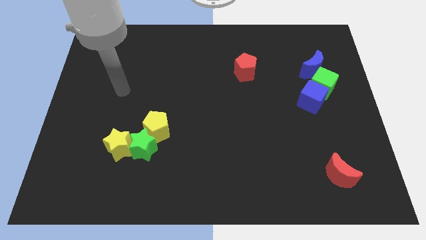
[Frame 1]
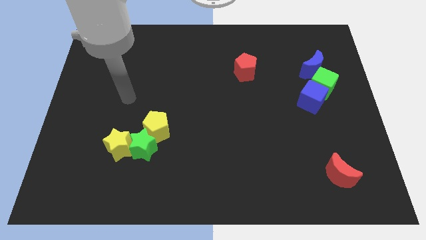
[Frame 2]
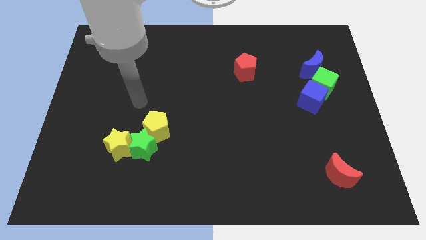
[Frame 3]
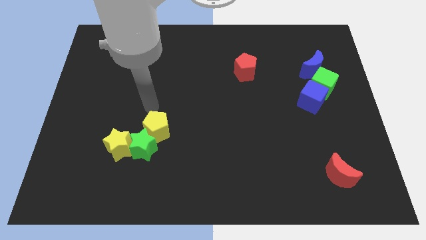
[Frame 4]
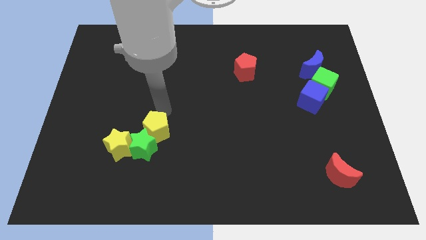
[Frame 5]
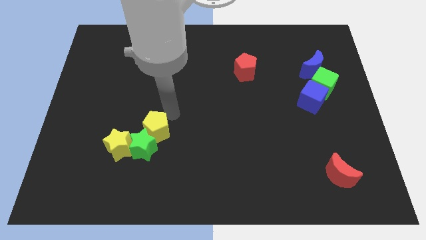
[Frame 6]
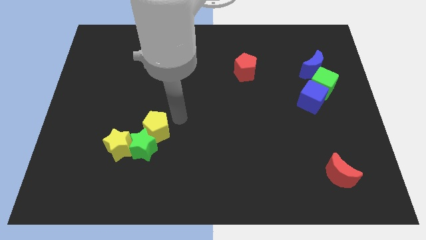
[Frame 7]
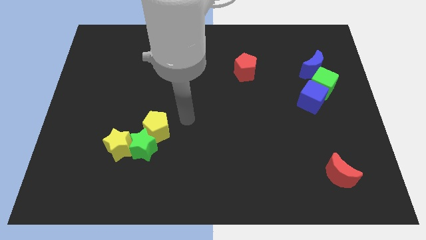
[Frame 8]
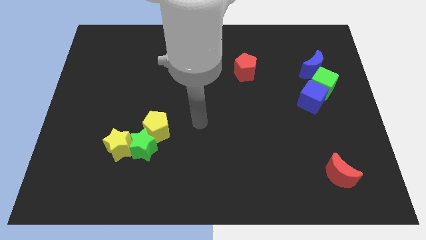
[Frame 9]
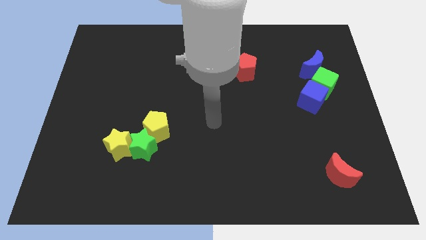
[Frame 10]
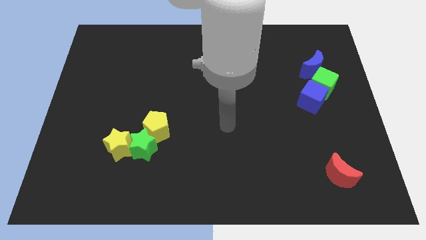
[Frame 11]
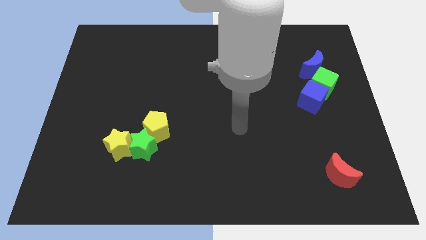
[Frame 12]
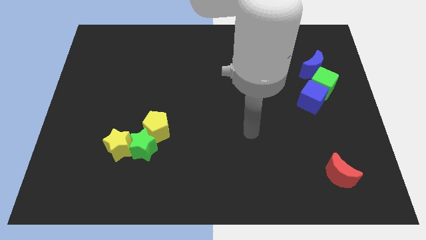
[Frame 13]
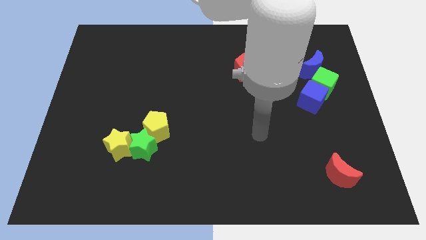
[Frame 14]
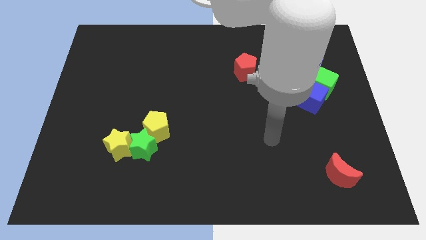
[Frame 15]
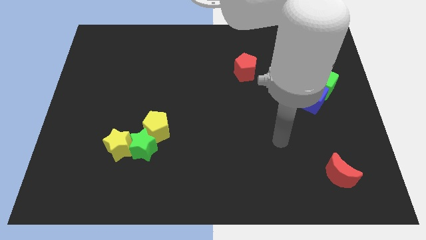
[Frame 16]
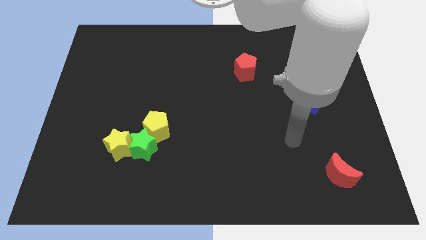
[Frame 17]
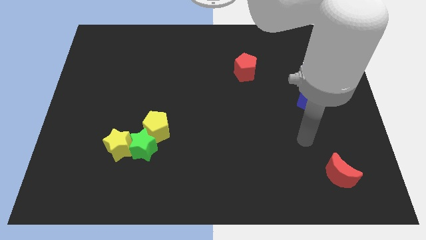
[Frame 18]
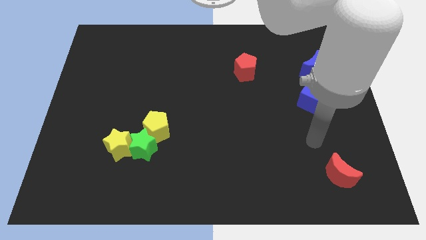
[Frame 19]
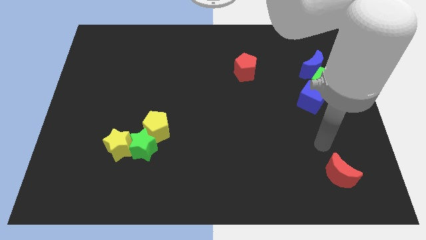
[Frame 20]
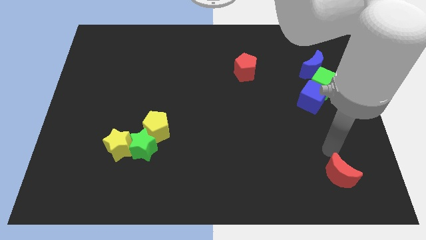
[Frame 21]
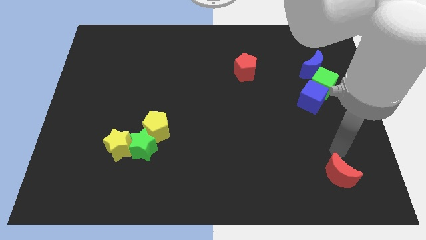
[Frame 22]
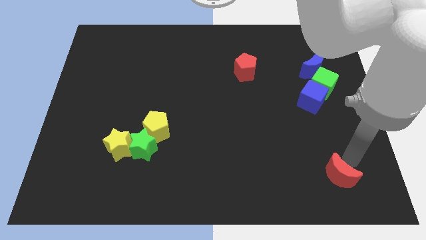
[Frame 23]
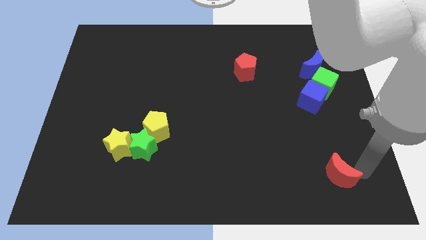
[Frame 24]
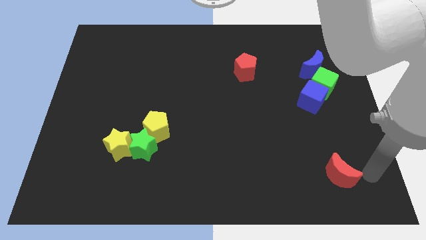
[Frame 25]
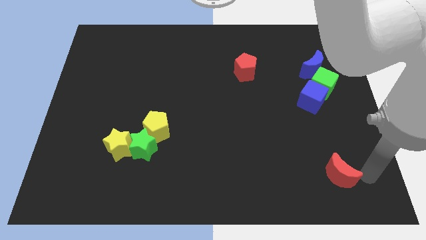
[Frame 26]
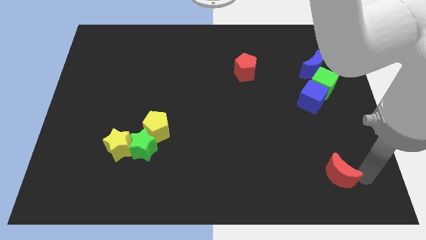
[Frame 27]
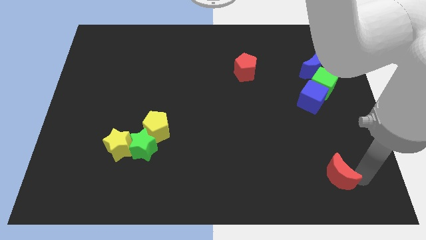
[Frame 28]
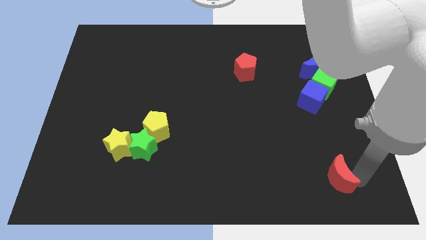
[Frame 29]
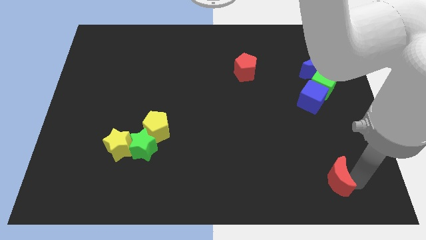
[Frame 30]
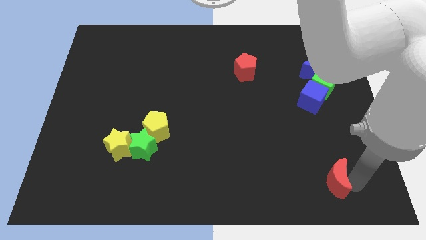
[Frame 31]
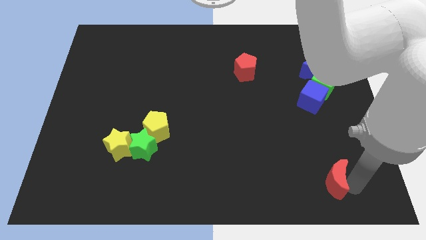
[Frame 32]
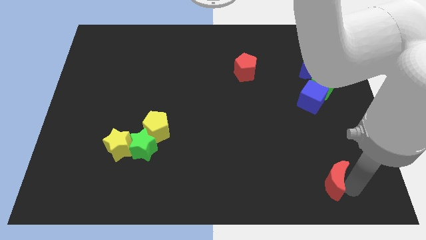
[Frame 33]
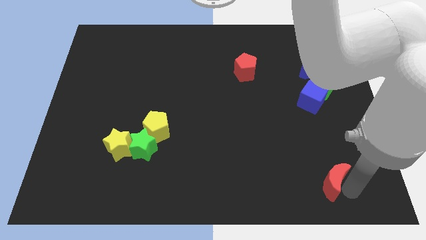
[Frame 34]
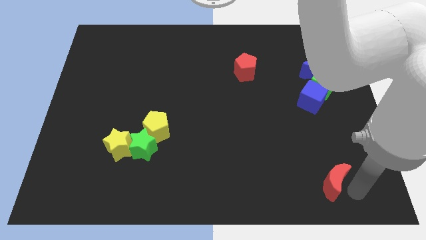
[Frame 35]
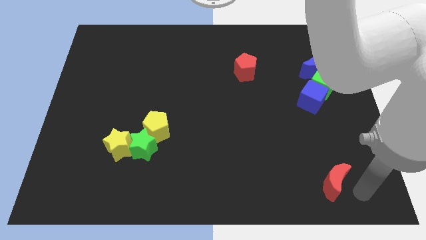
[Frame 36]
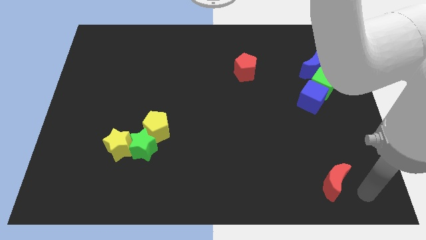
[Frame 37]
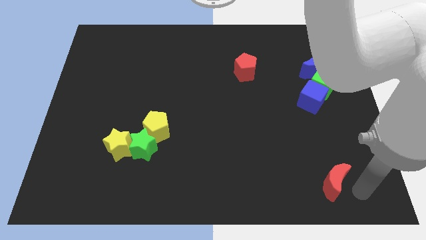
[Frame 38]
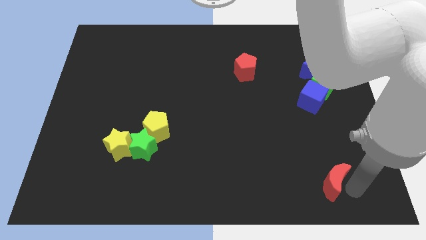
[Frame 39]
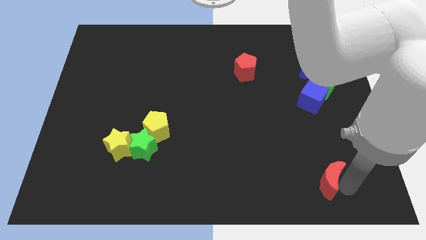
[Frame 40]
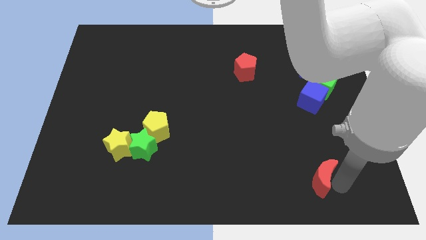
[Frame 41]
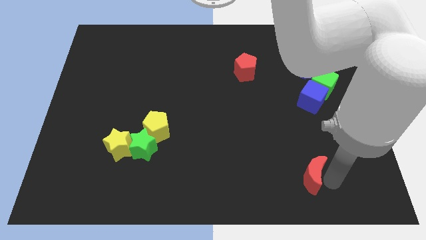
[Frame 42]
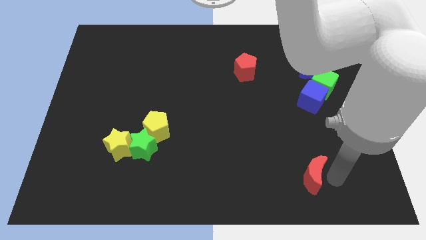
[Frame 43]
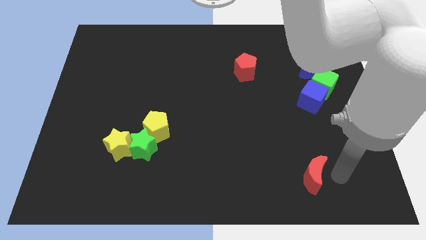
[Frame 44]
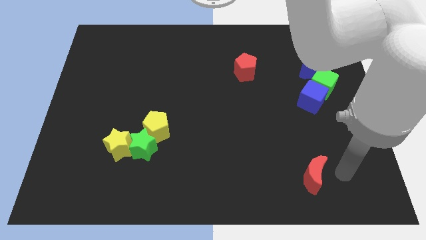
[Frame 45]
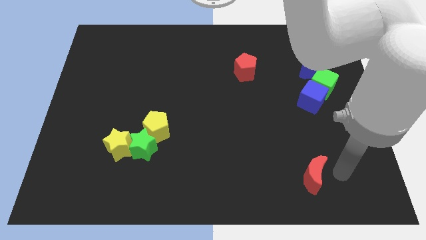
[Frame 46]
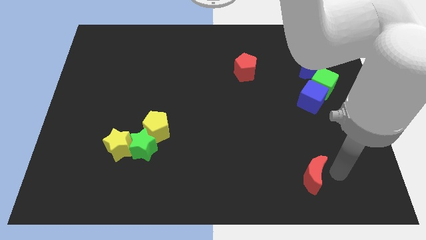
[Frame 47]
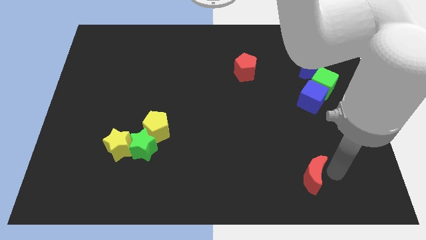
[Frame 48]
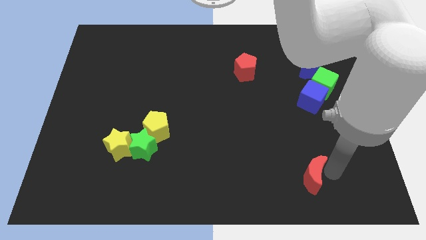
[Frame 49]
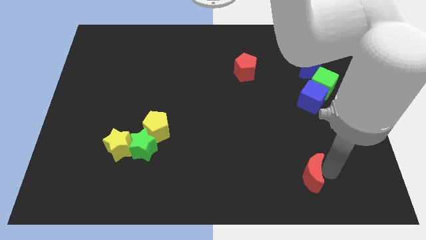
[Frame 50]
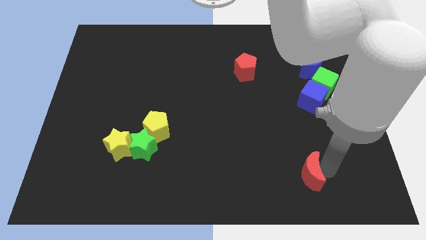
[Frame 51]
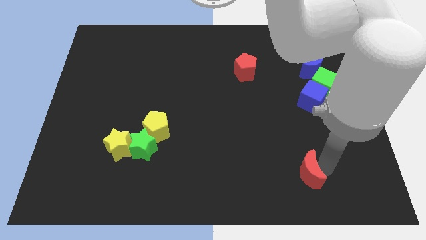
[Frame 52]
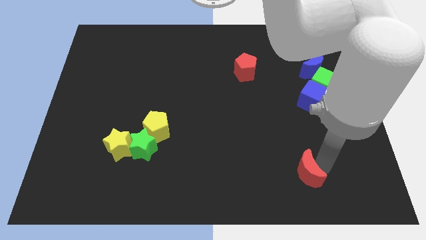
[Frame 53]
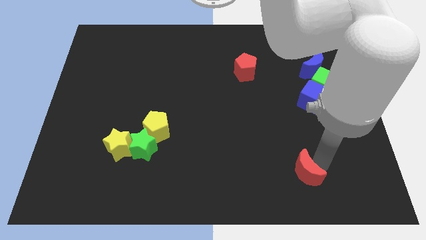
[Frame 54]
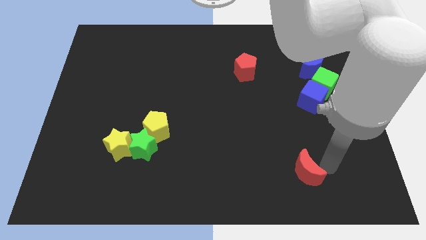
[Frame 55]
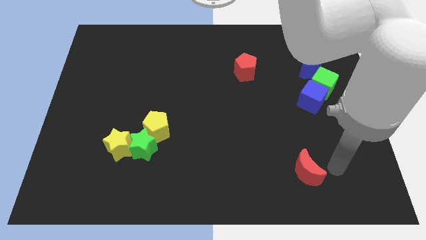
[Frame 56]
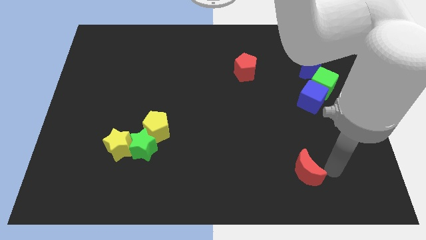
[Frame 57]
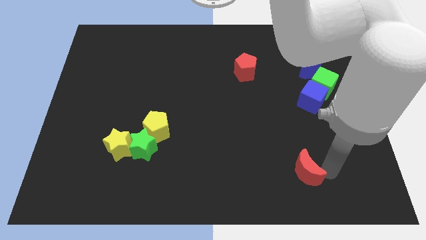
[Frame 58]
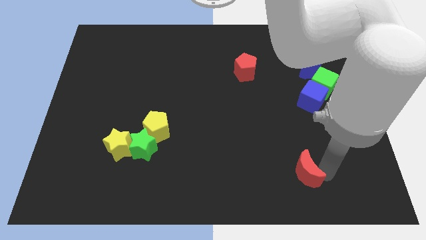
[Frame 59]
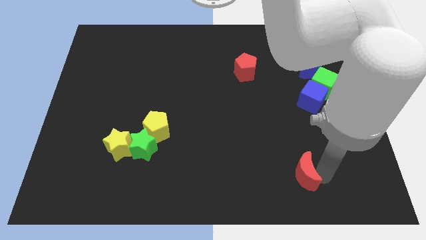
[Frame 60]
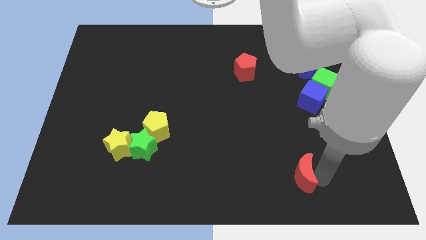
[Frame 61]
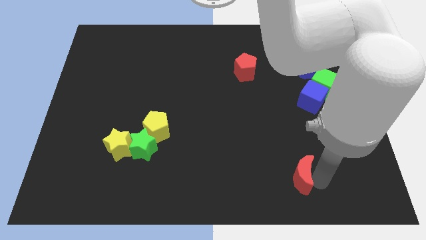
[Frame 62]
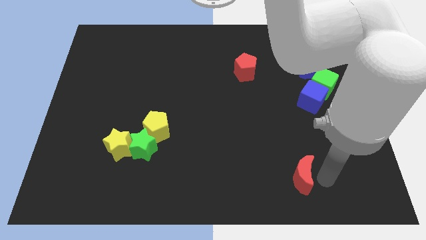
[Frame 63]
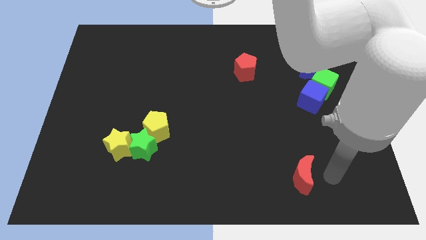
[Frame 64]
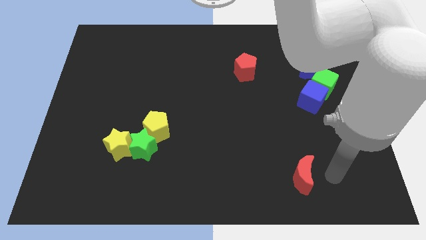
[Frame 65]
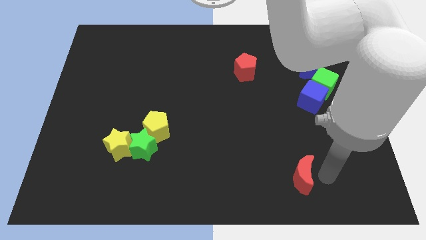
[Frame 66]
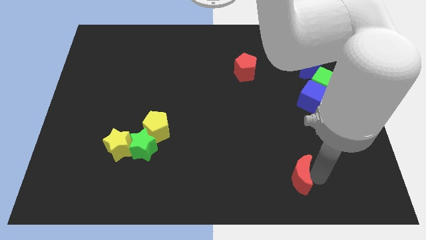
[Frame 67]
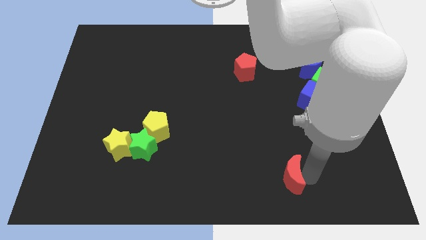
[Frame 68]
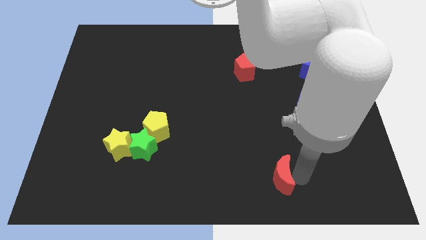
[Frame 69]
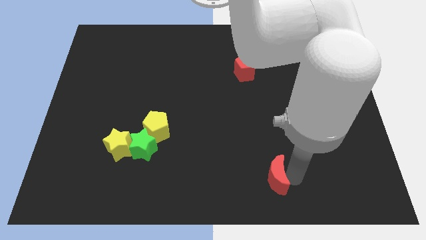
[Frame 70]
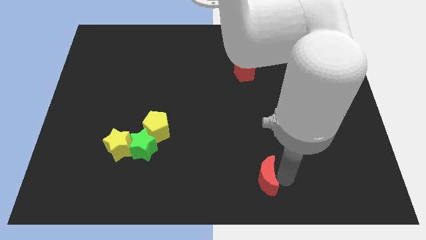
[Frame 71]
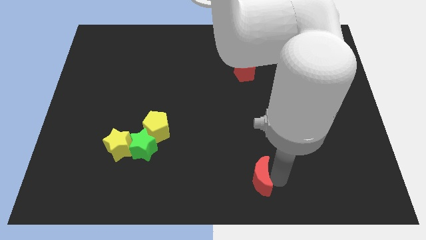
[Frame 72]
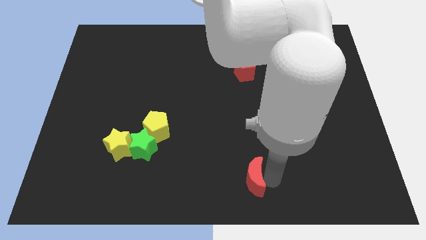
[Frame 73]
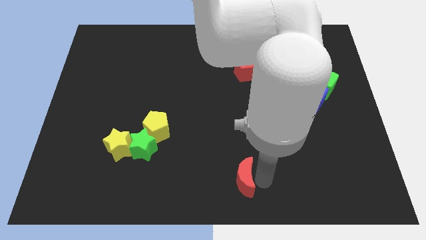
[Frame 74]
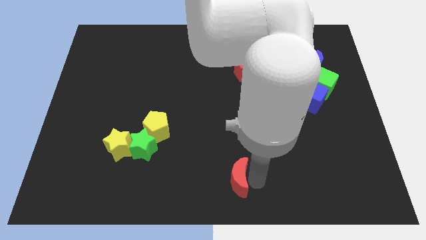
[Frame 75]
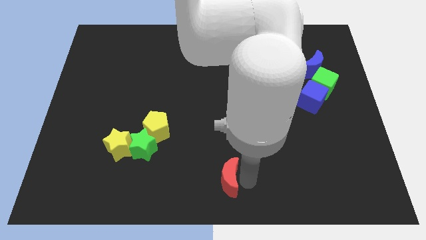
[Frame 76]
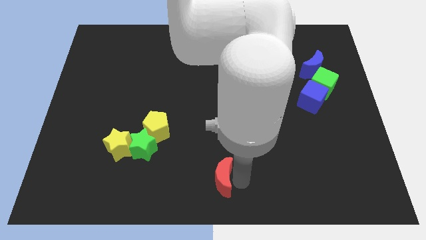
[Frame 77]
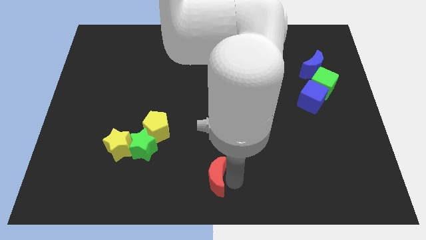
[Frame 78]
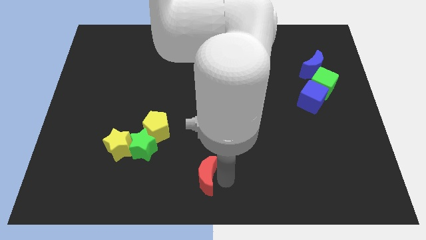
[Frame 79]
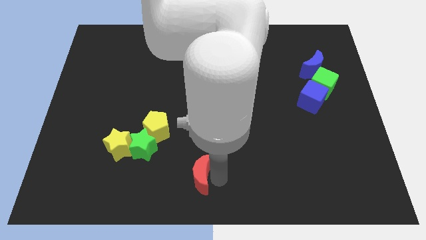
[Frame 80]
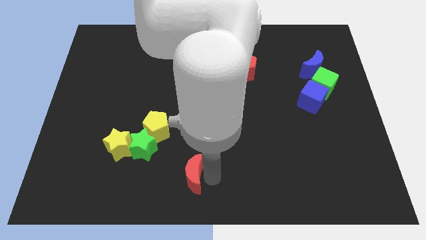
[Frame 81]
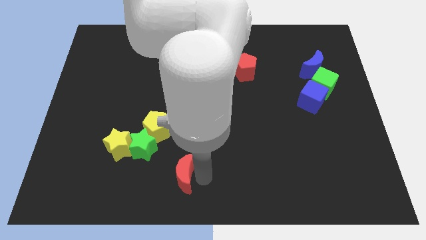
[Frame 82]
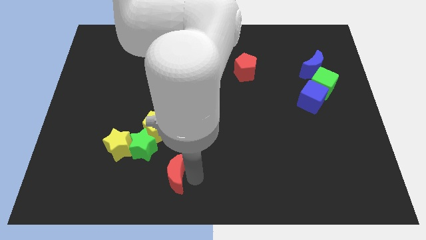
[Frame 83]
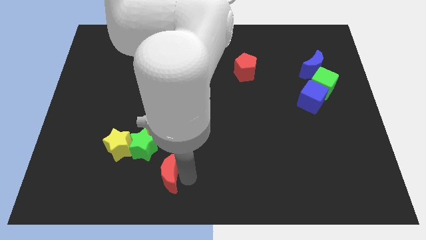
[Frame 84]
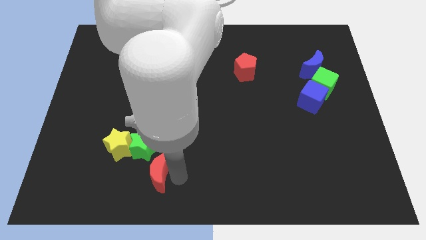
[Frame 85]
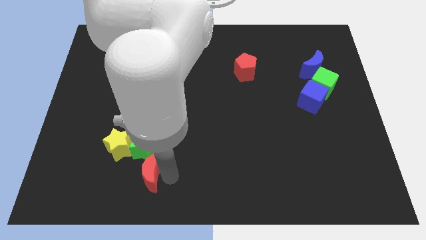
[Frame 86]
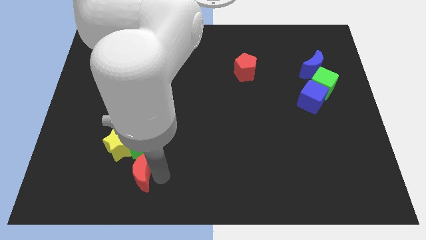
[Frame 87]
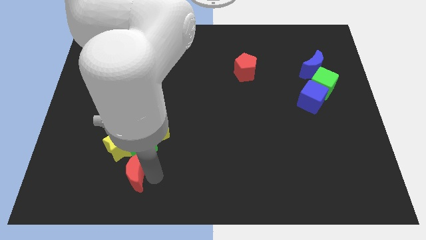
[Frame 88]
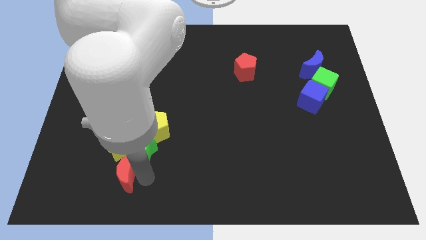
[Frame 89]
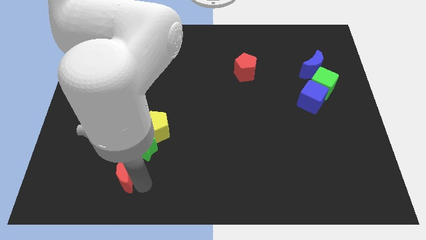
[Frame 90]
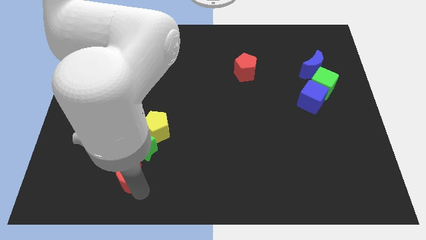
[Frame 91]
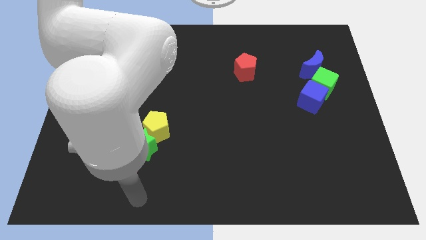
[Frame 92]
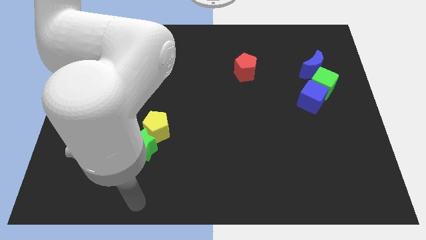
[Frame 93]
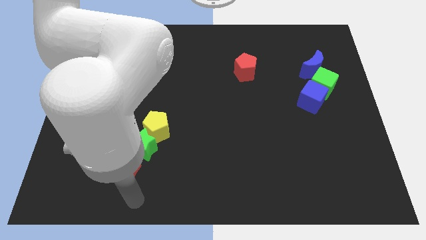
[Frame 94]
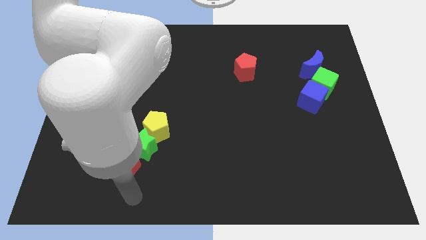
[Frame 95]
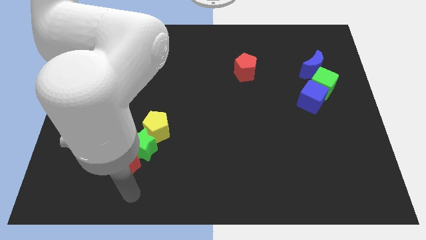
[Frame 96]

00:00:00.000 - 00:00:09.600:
move the red moon to the yellow star
